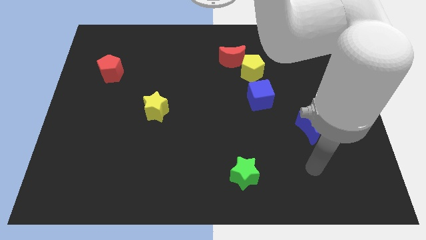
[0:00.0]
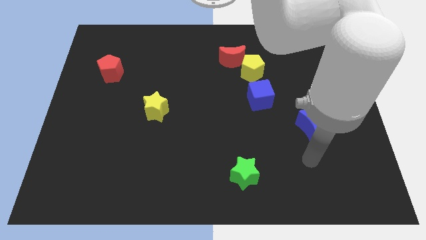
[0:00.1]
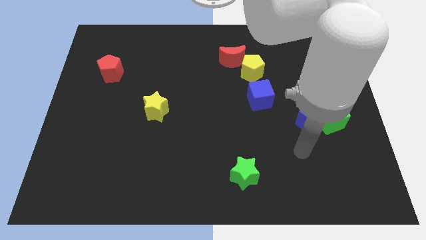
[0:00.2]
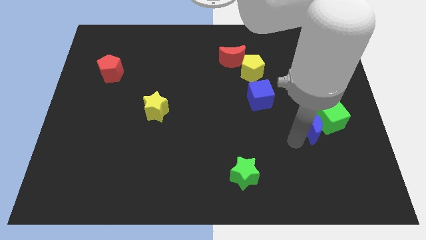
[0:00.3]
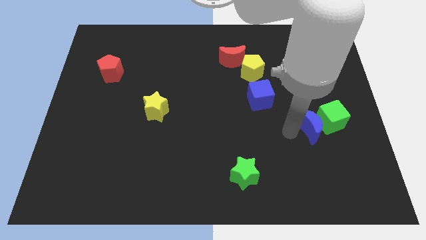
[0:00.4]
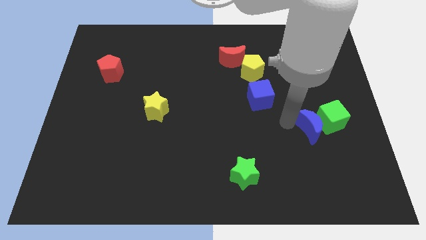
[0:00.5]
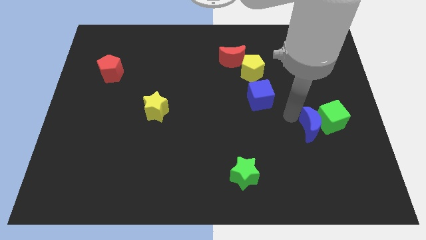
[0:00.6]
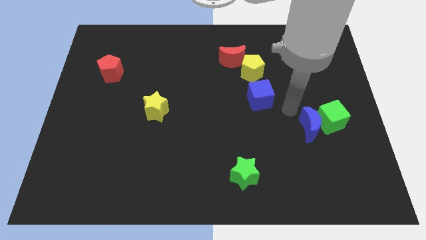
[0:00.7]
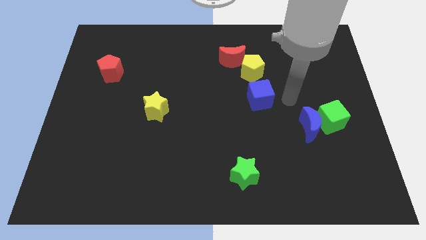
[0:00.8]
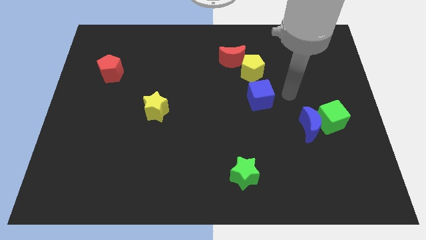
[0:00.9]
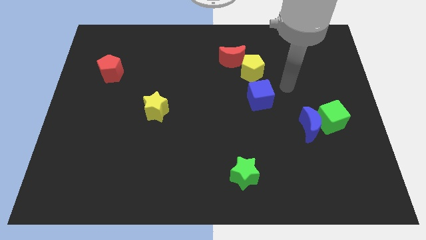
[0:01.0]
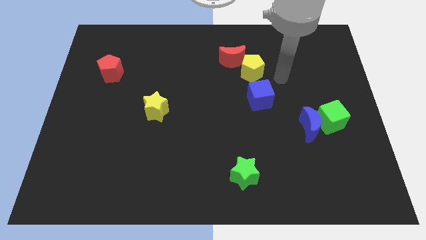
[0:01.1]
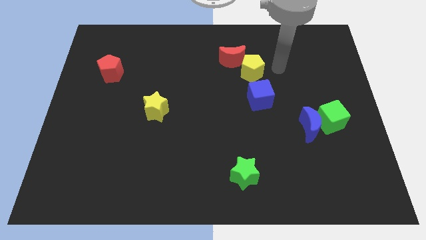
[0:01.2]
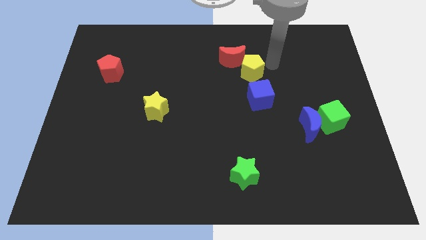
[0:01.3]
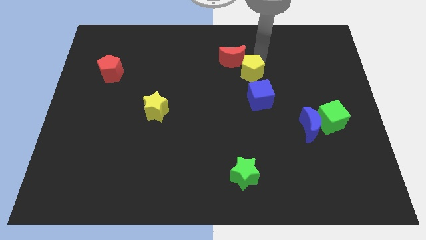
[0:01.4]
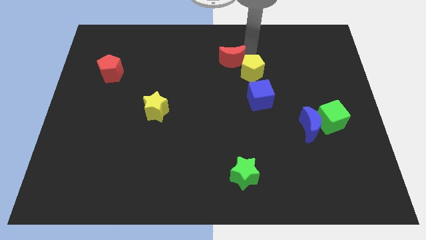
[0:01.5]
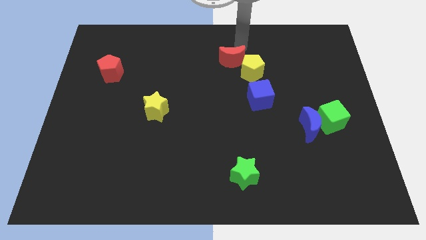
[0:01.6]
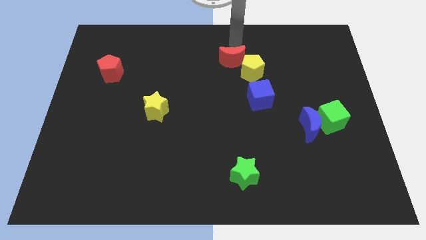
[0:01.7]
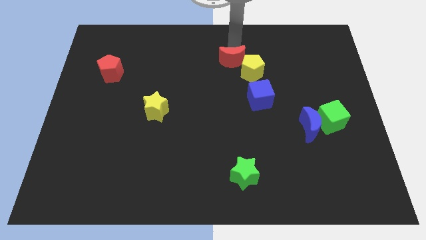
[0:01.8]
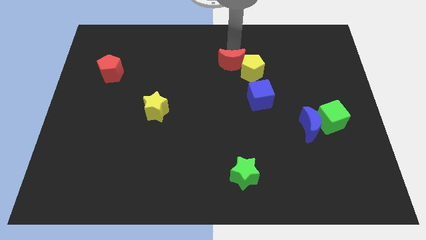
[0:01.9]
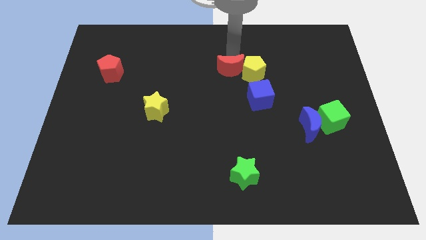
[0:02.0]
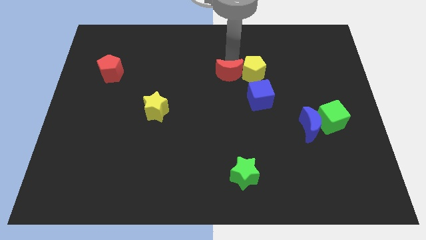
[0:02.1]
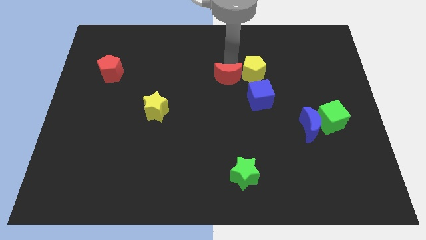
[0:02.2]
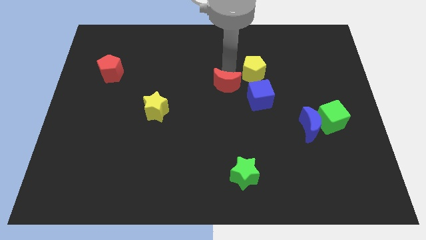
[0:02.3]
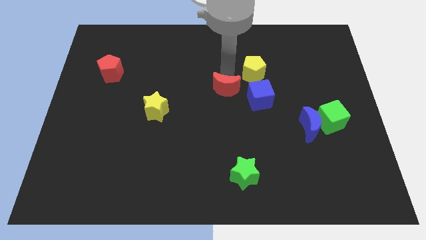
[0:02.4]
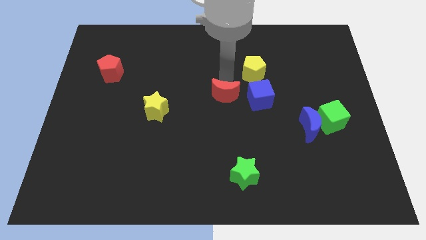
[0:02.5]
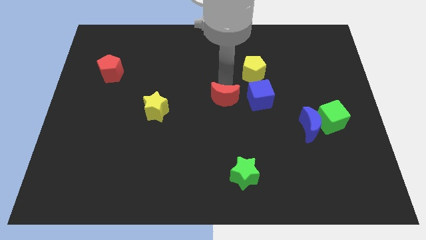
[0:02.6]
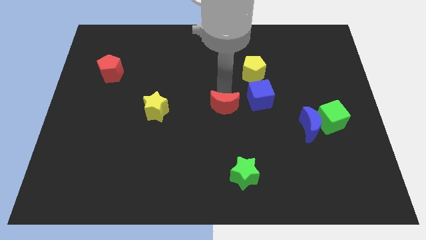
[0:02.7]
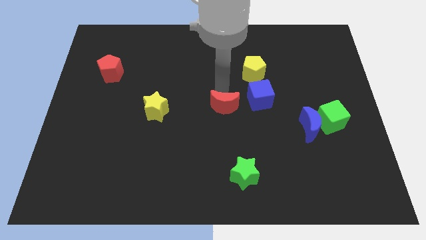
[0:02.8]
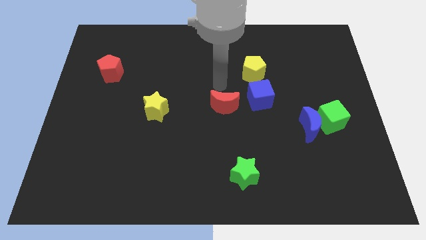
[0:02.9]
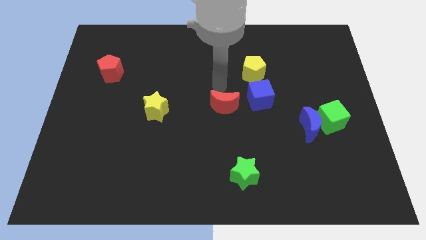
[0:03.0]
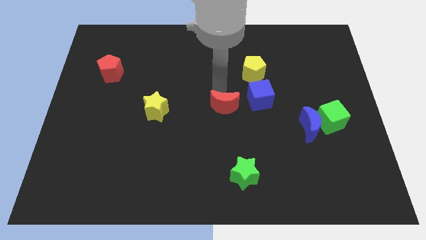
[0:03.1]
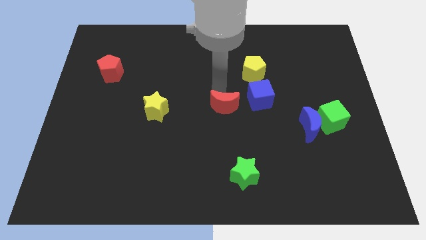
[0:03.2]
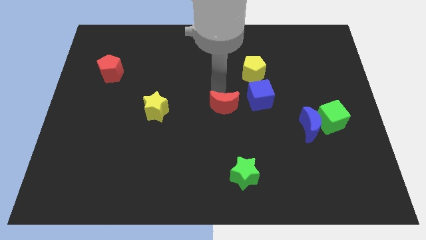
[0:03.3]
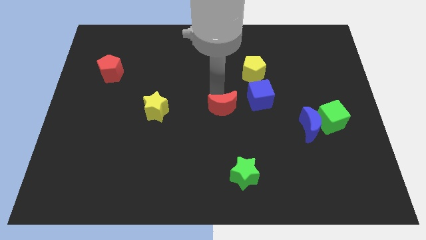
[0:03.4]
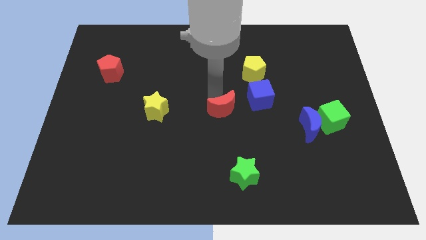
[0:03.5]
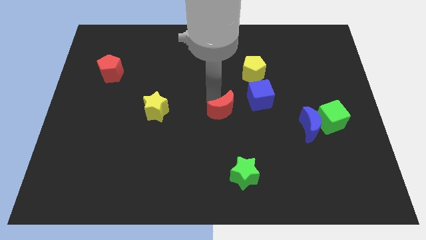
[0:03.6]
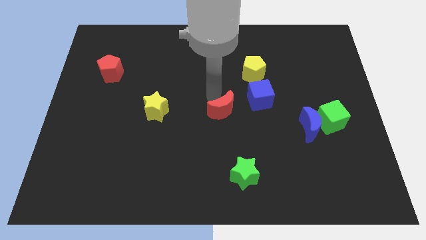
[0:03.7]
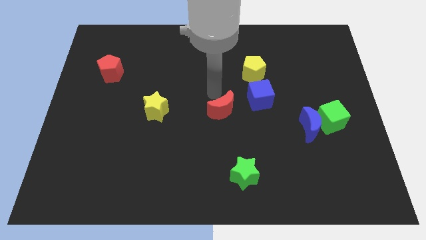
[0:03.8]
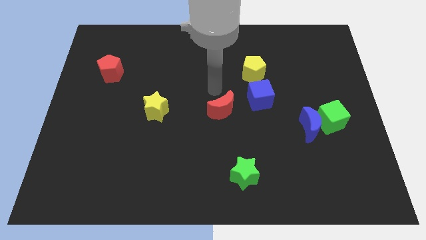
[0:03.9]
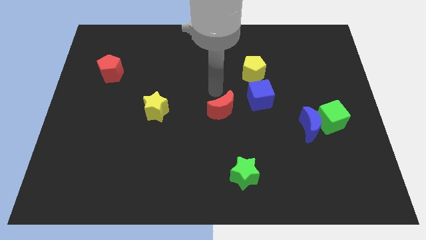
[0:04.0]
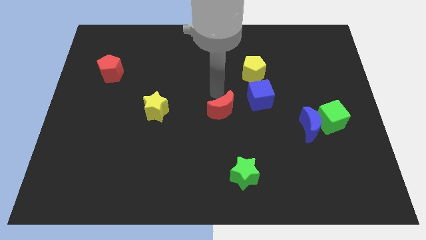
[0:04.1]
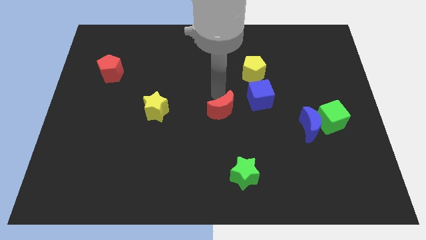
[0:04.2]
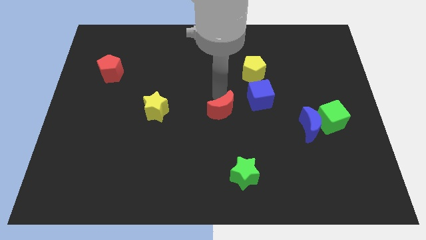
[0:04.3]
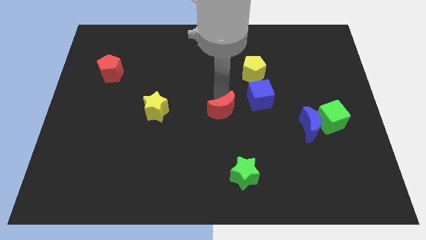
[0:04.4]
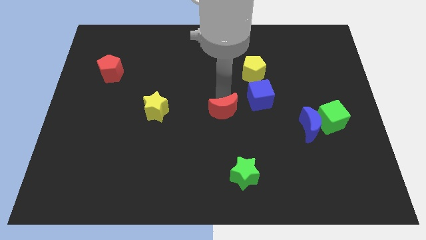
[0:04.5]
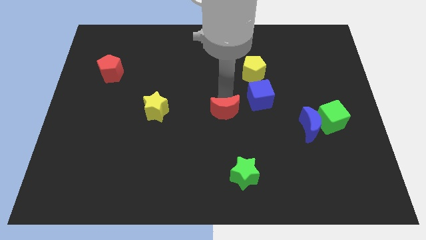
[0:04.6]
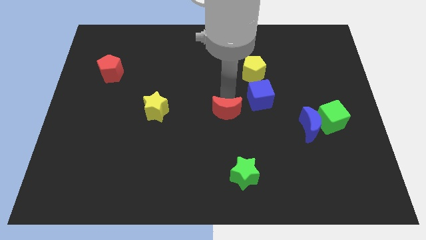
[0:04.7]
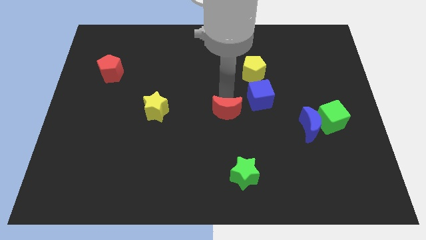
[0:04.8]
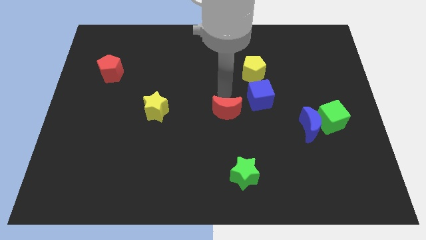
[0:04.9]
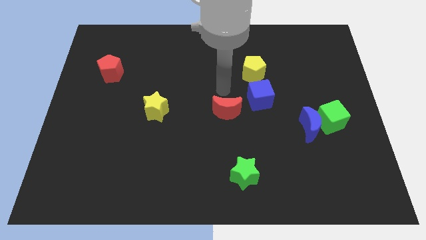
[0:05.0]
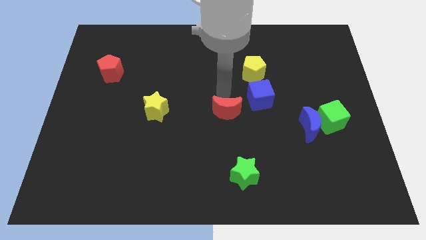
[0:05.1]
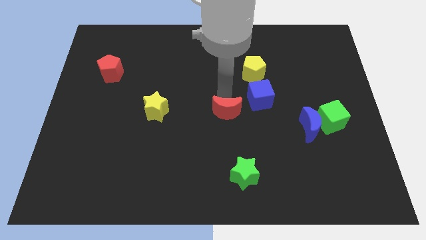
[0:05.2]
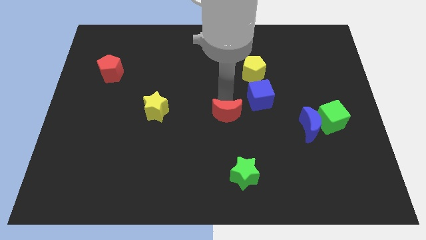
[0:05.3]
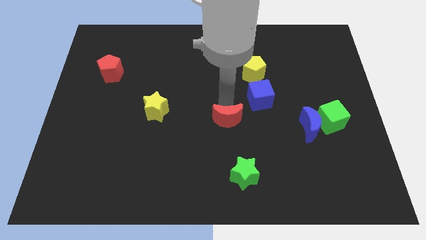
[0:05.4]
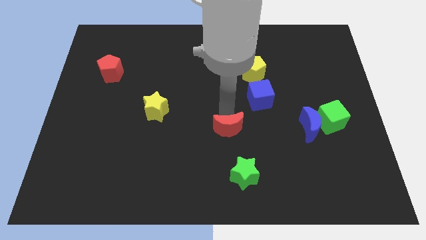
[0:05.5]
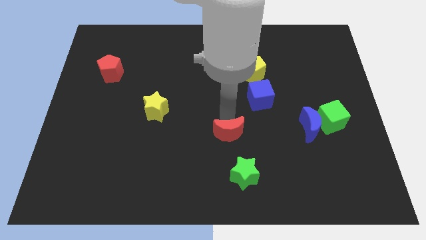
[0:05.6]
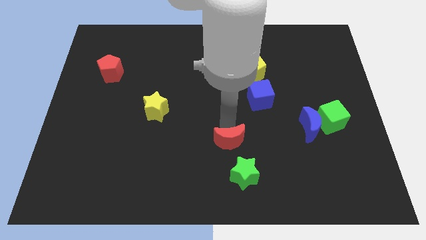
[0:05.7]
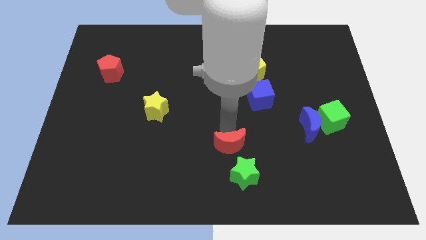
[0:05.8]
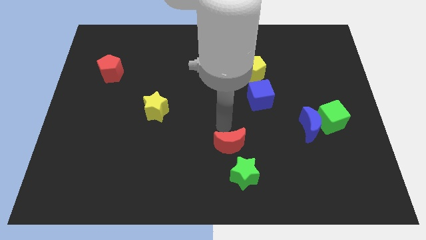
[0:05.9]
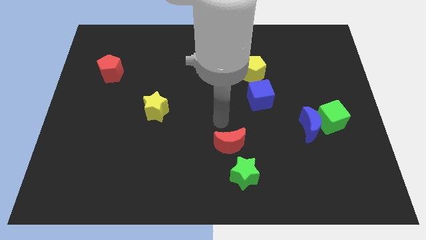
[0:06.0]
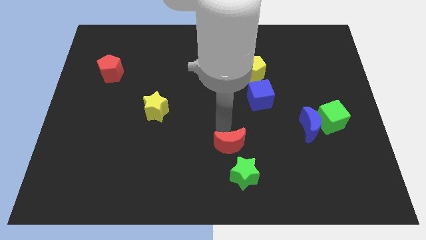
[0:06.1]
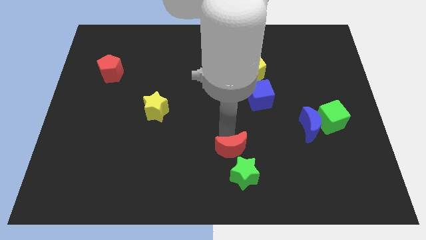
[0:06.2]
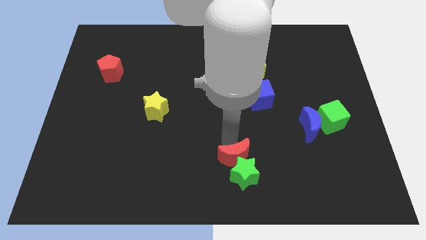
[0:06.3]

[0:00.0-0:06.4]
slide the red moon close to the green star

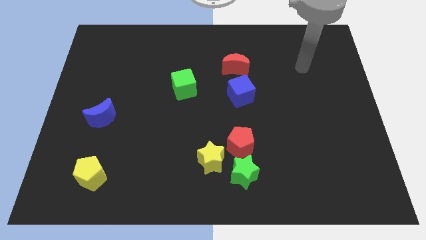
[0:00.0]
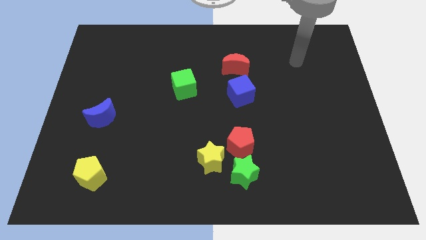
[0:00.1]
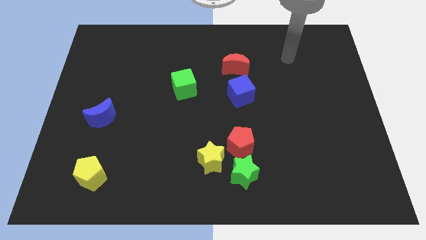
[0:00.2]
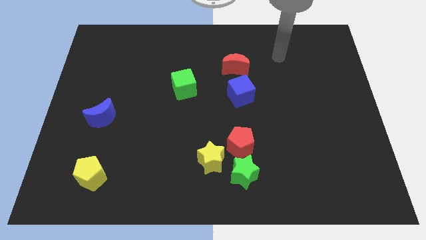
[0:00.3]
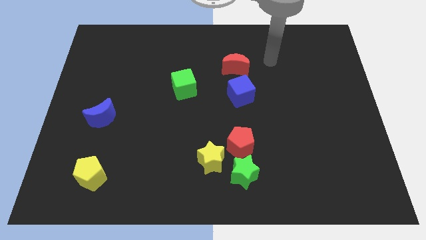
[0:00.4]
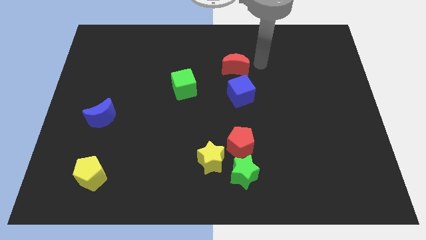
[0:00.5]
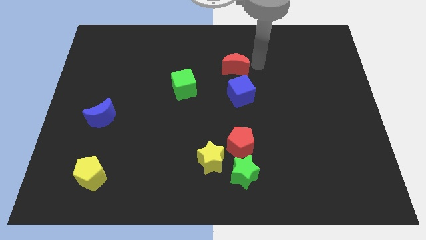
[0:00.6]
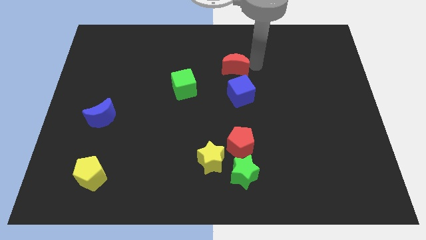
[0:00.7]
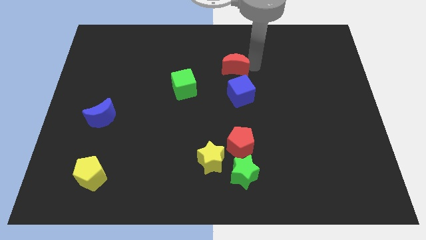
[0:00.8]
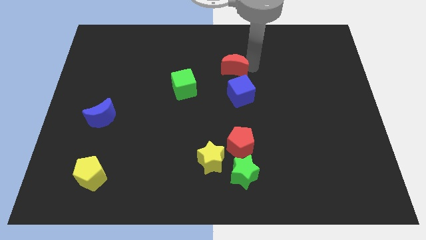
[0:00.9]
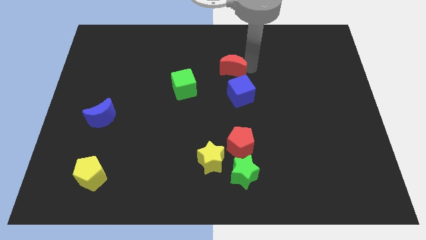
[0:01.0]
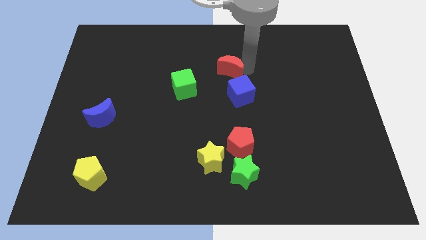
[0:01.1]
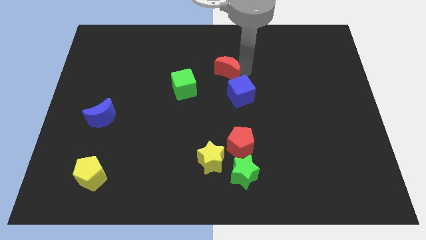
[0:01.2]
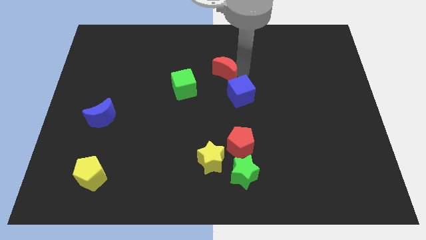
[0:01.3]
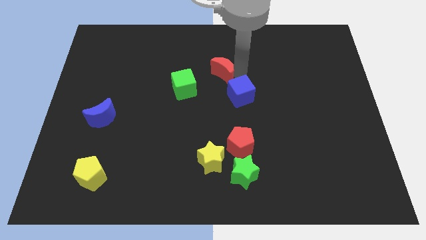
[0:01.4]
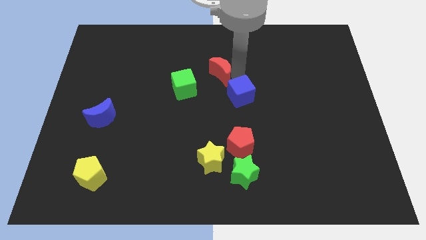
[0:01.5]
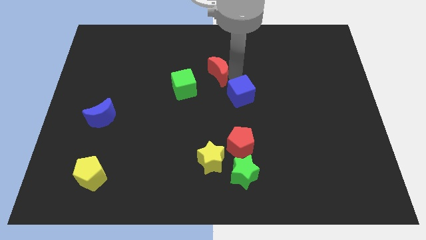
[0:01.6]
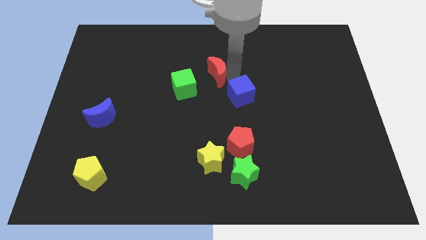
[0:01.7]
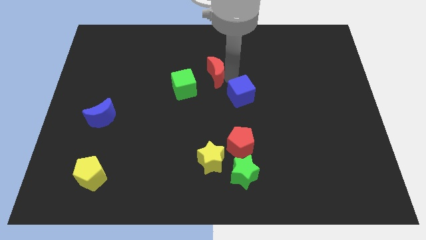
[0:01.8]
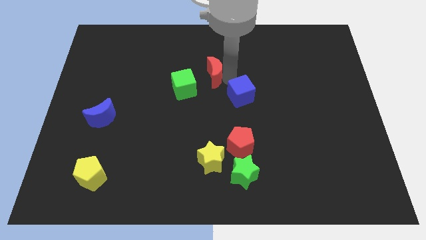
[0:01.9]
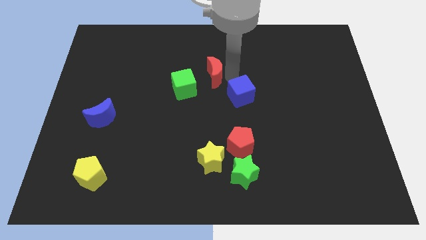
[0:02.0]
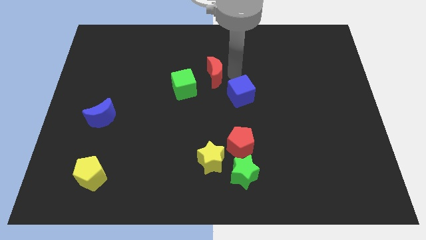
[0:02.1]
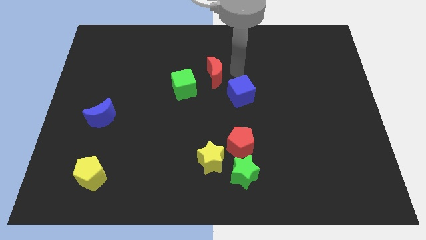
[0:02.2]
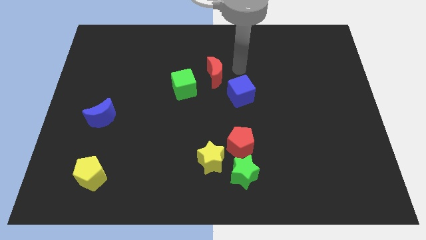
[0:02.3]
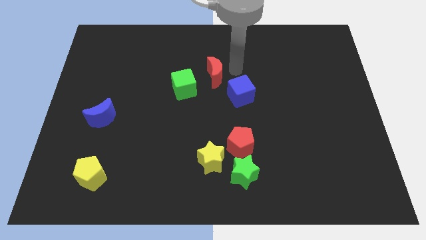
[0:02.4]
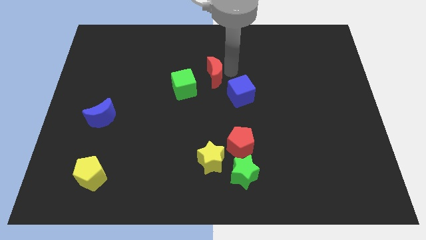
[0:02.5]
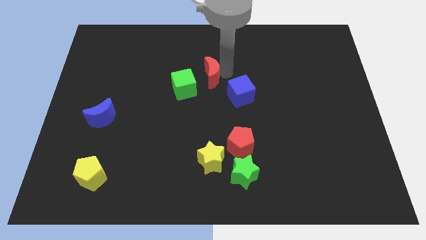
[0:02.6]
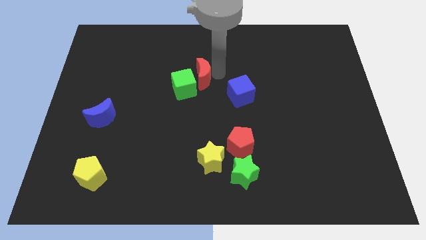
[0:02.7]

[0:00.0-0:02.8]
put the red moon close to the green cube
